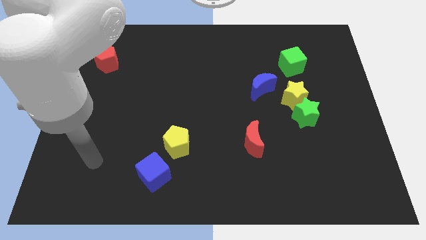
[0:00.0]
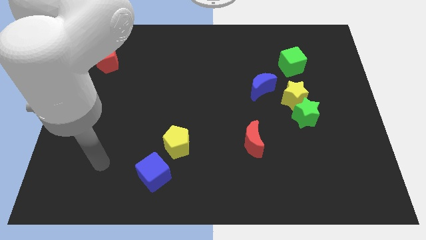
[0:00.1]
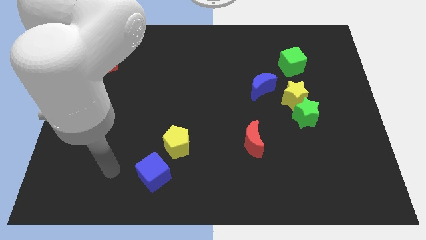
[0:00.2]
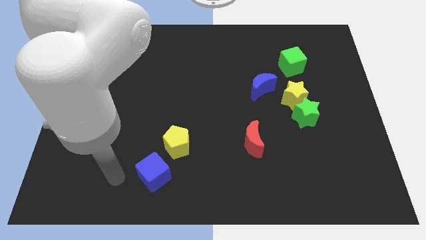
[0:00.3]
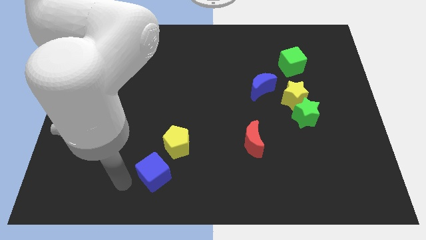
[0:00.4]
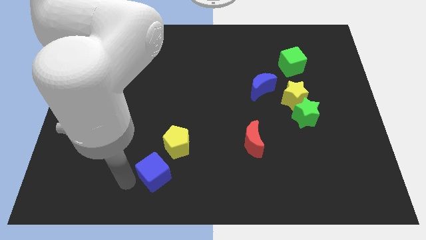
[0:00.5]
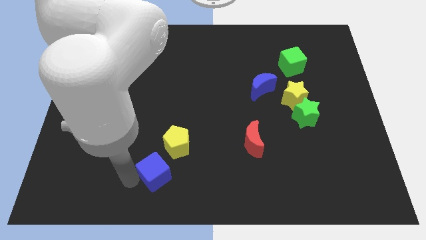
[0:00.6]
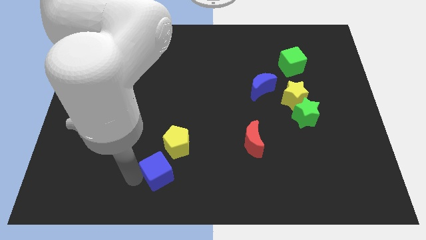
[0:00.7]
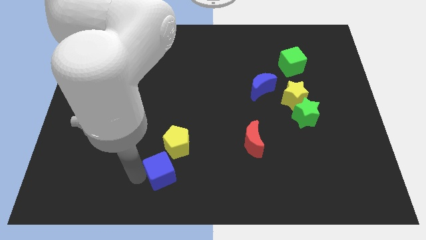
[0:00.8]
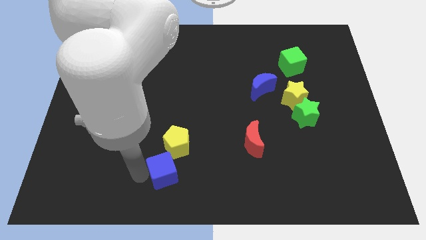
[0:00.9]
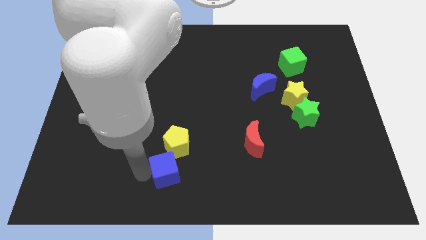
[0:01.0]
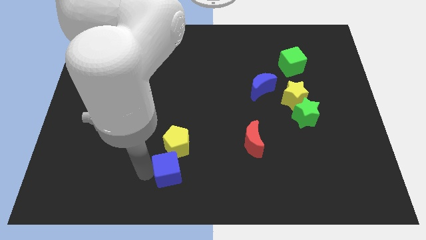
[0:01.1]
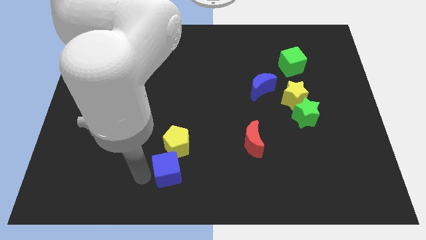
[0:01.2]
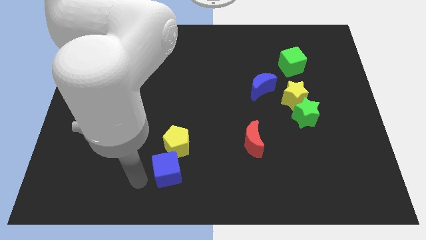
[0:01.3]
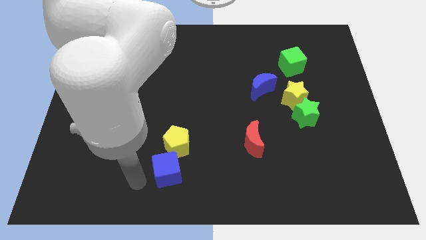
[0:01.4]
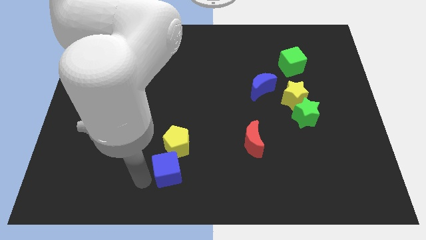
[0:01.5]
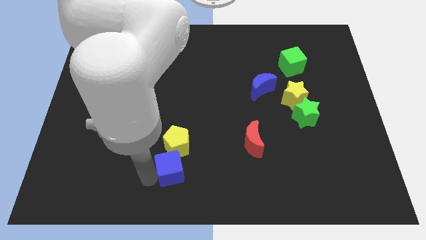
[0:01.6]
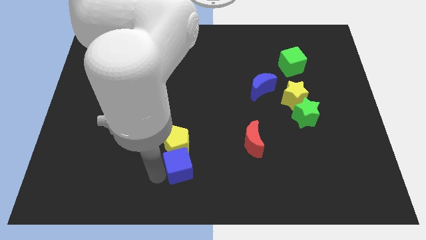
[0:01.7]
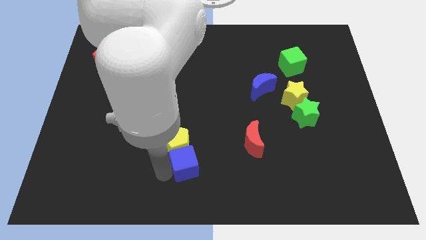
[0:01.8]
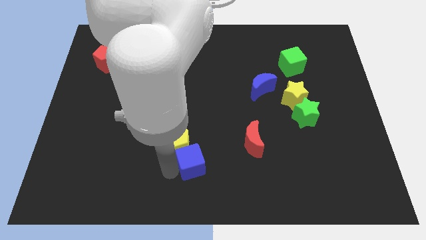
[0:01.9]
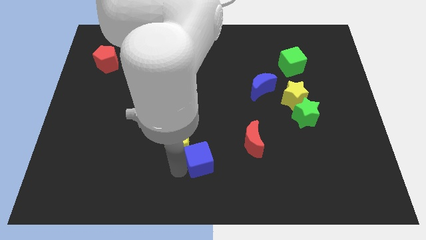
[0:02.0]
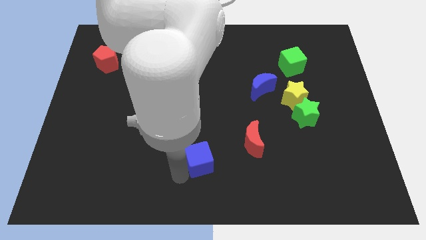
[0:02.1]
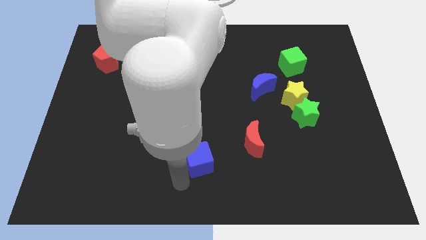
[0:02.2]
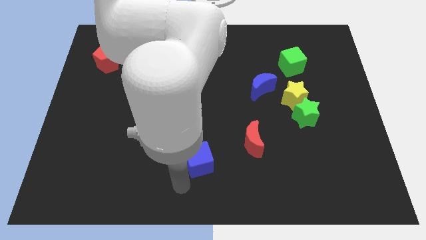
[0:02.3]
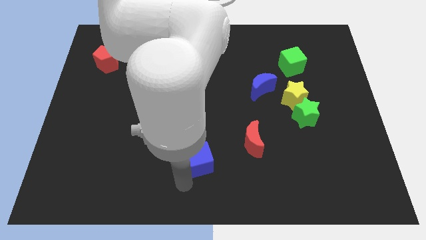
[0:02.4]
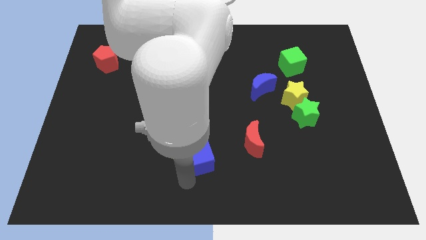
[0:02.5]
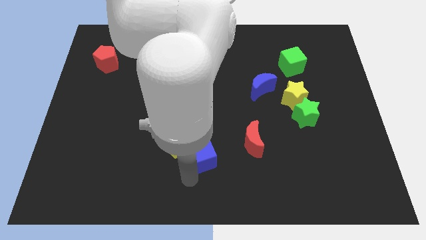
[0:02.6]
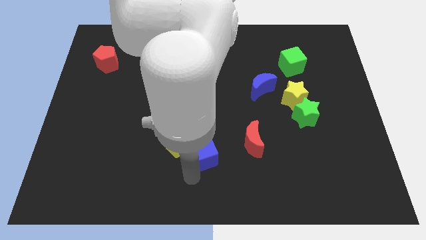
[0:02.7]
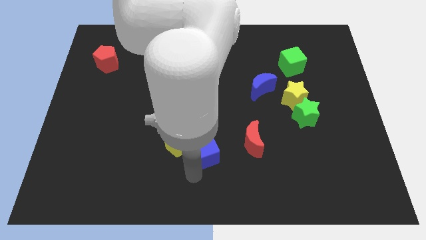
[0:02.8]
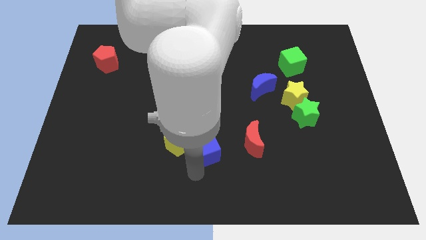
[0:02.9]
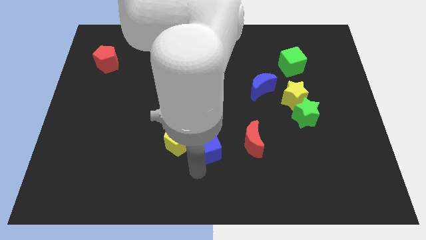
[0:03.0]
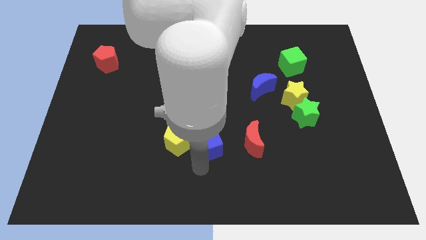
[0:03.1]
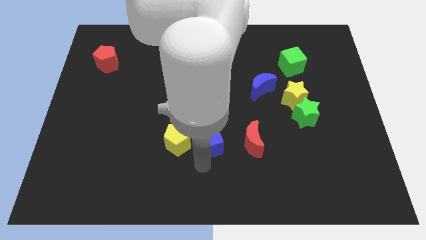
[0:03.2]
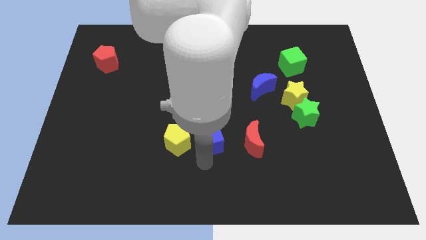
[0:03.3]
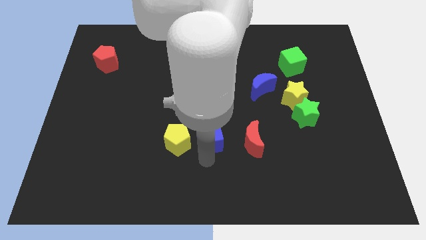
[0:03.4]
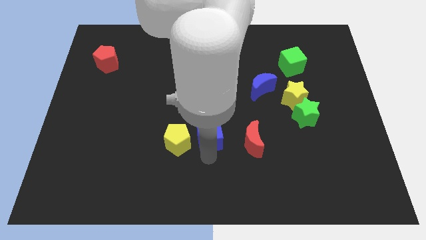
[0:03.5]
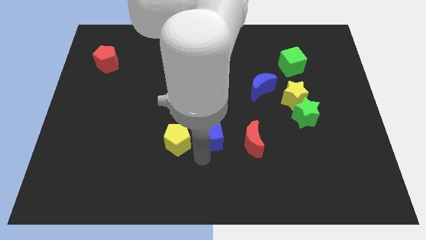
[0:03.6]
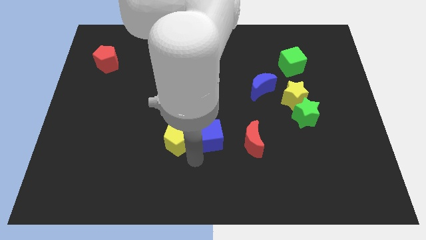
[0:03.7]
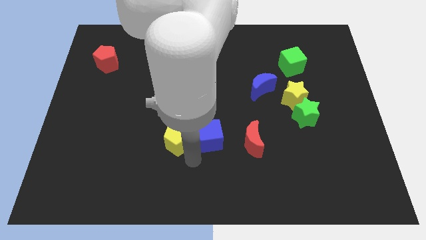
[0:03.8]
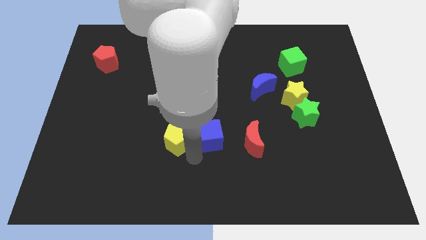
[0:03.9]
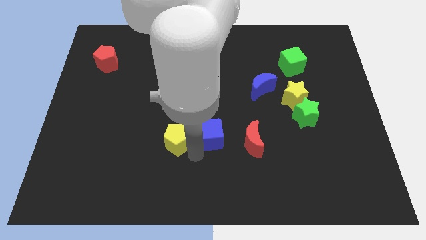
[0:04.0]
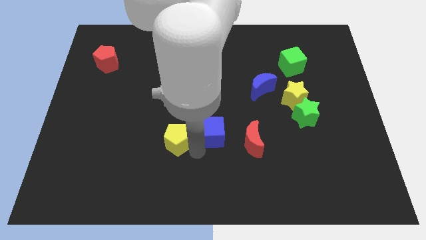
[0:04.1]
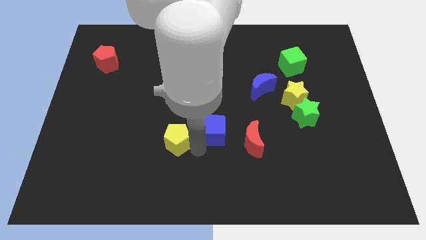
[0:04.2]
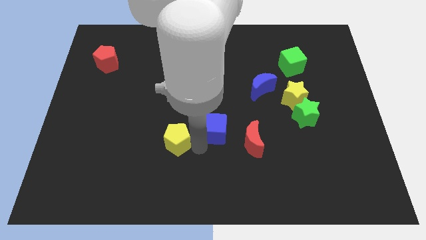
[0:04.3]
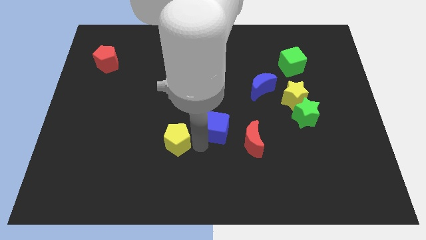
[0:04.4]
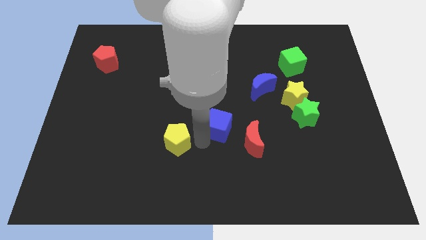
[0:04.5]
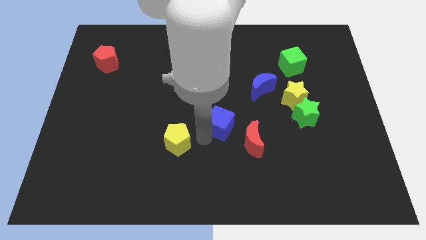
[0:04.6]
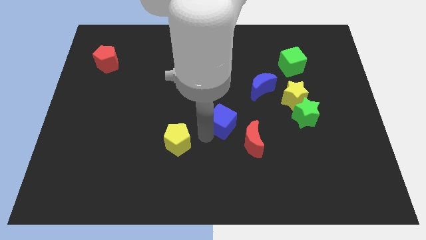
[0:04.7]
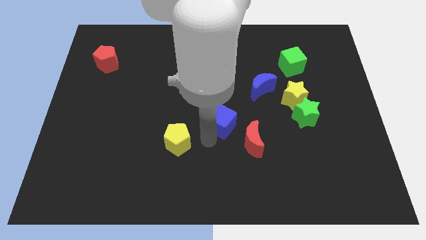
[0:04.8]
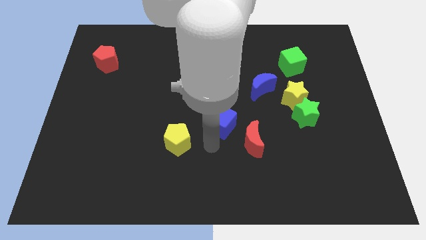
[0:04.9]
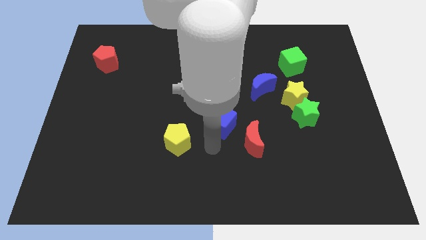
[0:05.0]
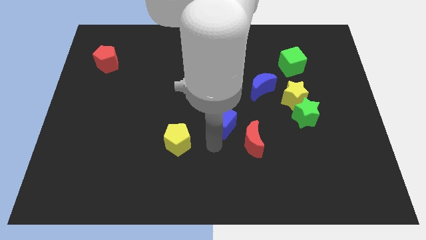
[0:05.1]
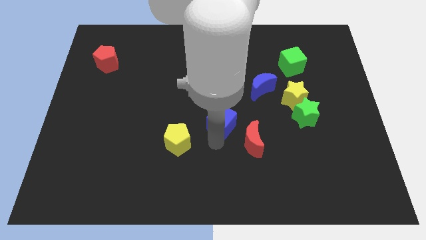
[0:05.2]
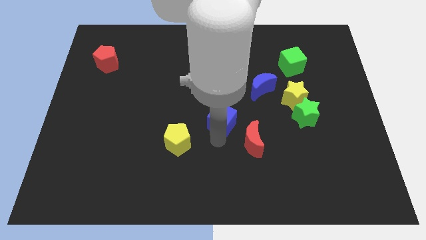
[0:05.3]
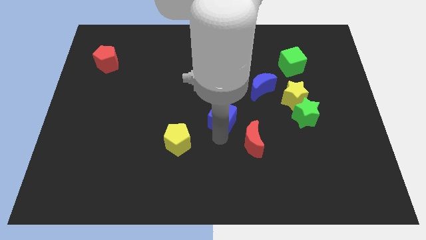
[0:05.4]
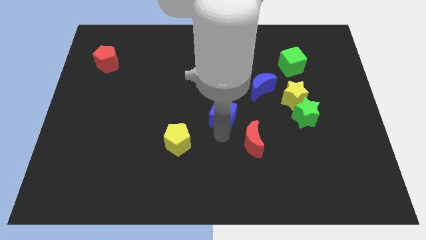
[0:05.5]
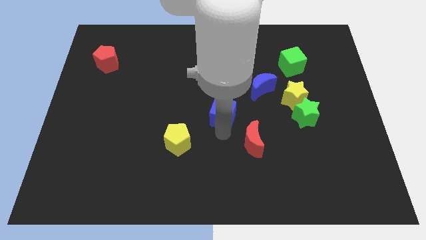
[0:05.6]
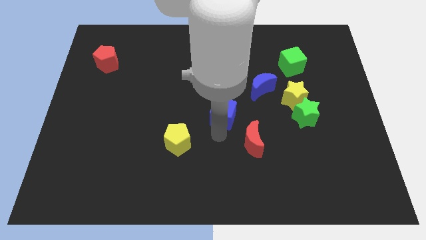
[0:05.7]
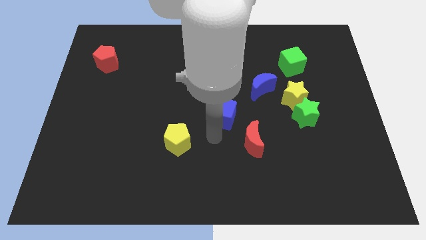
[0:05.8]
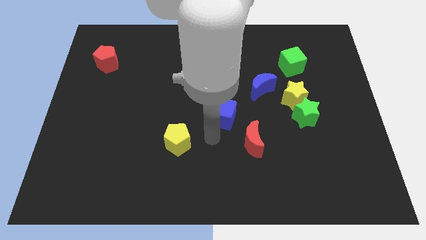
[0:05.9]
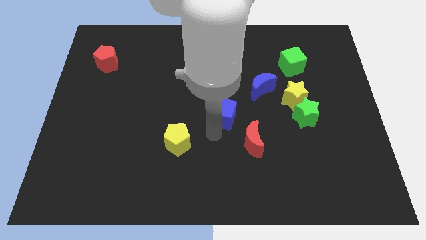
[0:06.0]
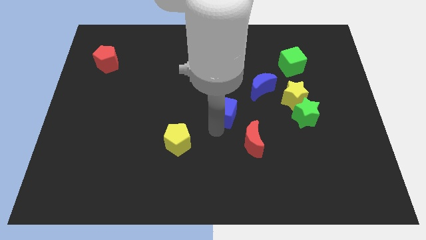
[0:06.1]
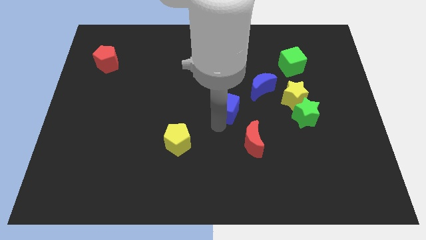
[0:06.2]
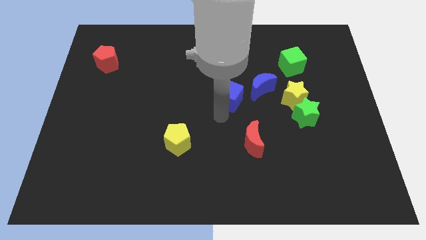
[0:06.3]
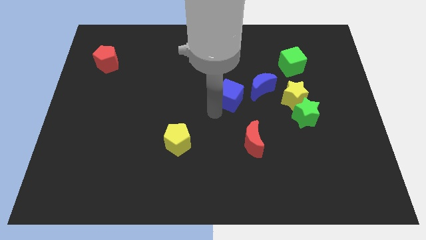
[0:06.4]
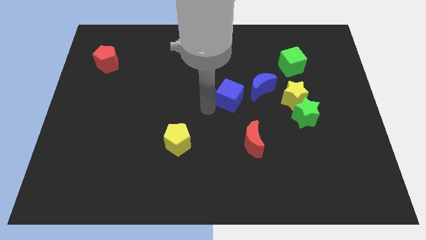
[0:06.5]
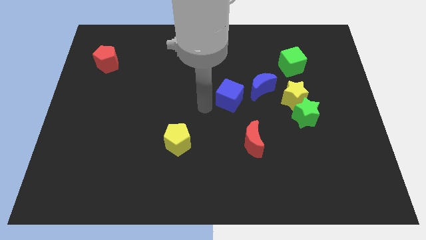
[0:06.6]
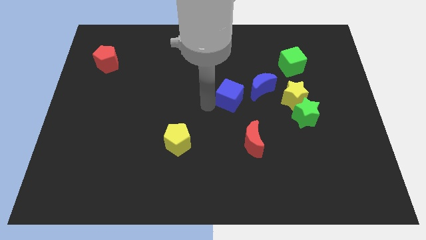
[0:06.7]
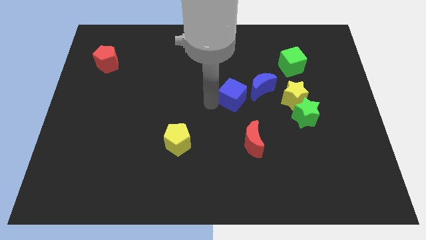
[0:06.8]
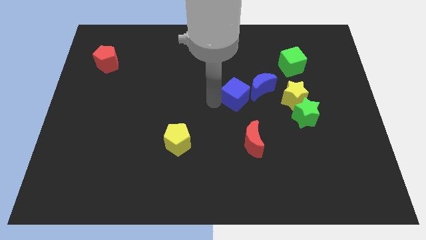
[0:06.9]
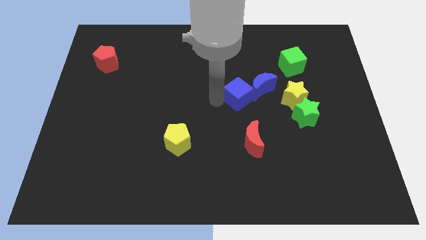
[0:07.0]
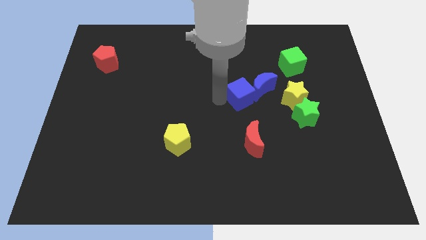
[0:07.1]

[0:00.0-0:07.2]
move the blue cube next to the blue moon
